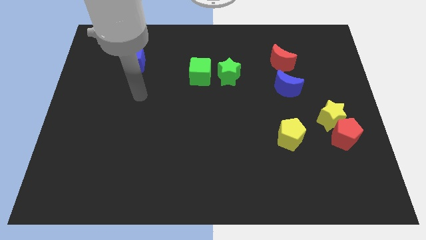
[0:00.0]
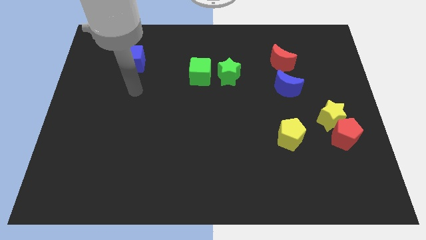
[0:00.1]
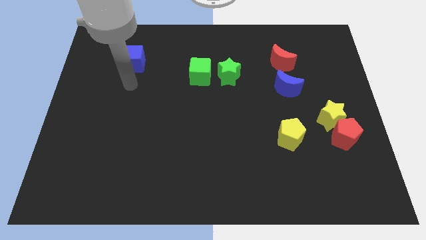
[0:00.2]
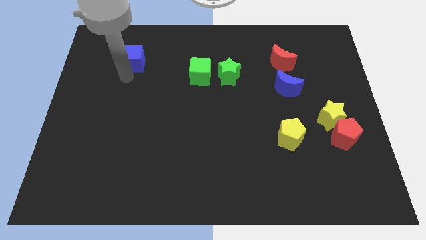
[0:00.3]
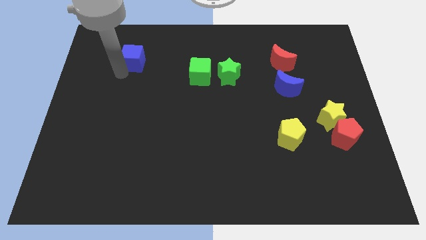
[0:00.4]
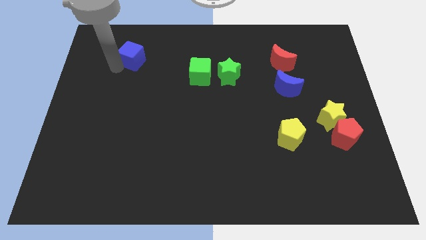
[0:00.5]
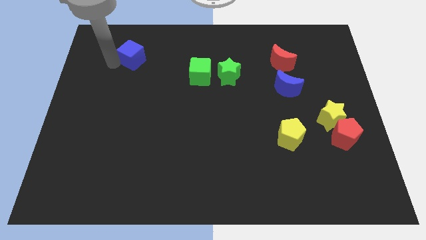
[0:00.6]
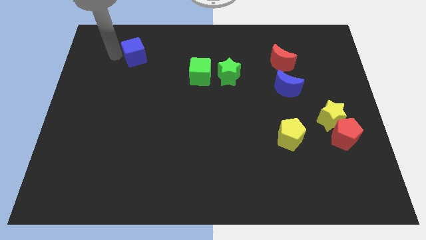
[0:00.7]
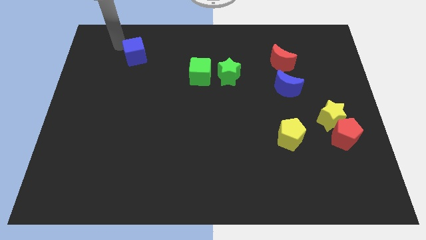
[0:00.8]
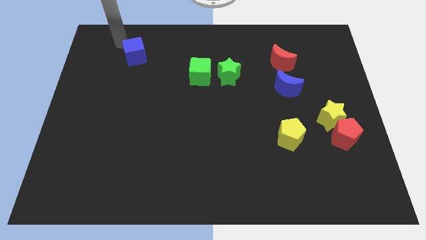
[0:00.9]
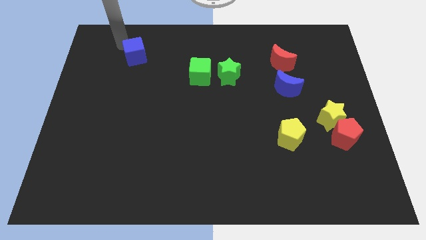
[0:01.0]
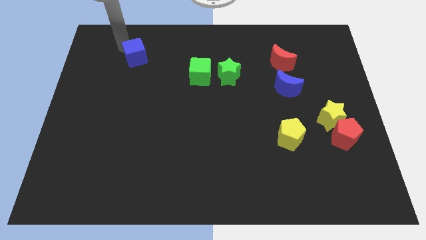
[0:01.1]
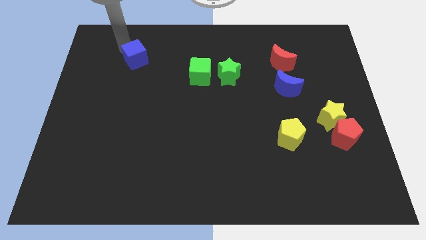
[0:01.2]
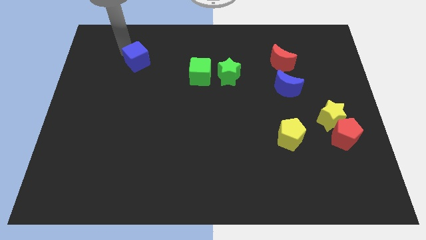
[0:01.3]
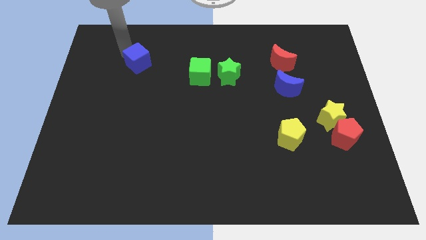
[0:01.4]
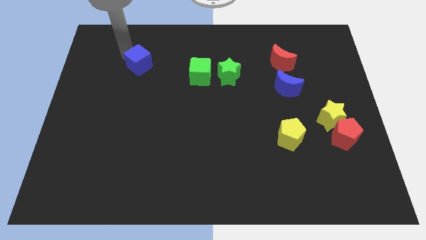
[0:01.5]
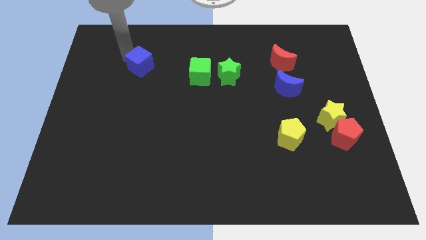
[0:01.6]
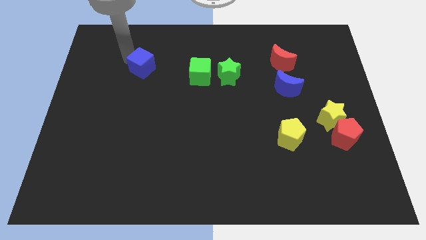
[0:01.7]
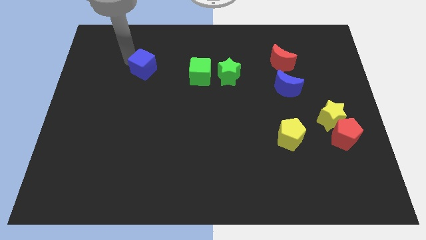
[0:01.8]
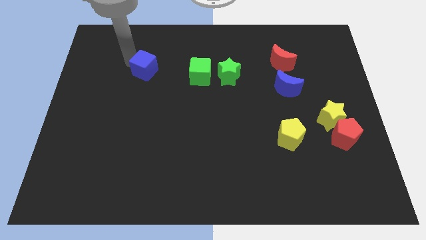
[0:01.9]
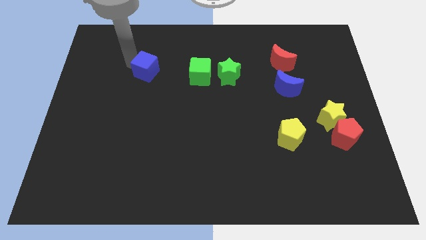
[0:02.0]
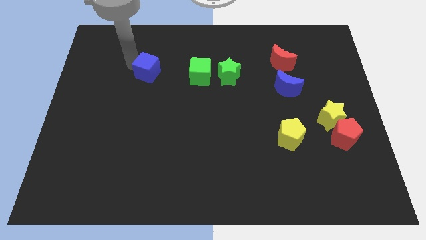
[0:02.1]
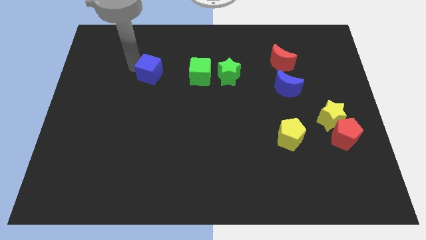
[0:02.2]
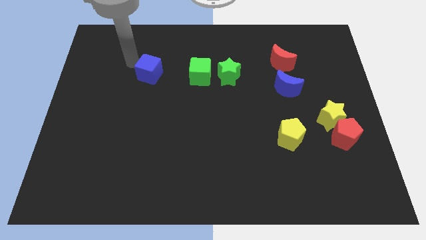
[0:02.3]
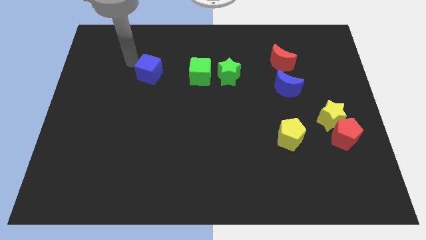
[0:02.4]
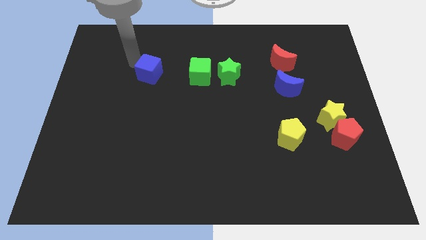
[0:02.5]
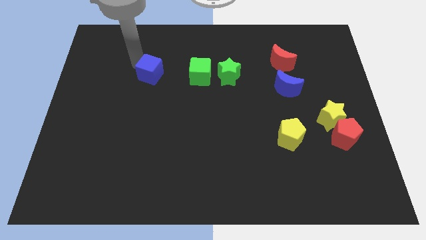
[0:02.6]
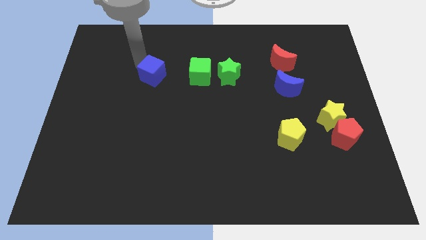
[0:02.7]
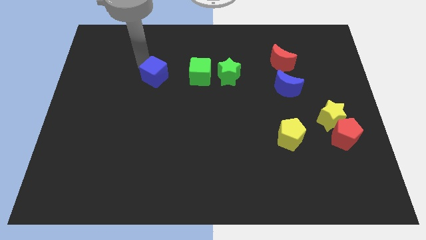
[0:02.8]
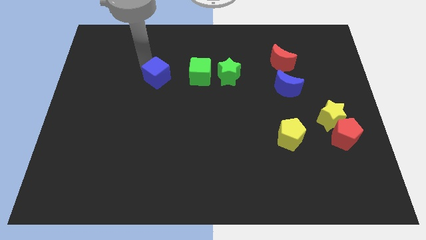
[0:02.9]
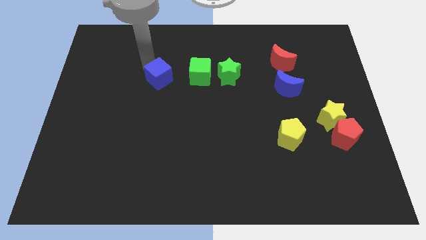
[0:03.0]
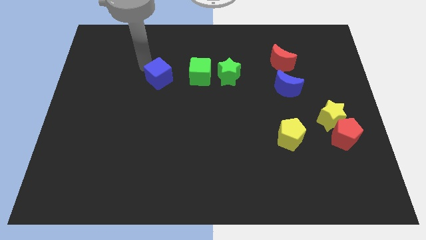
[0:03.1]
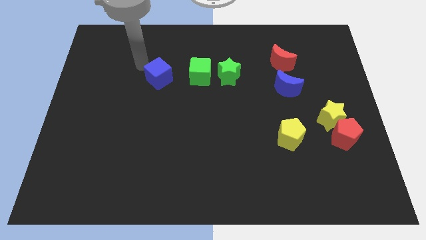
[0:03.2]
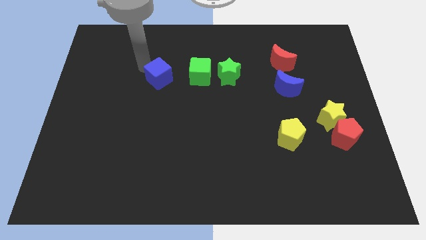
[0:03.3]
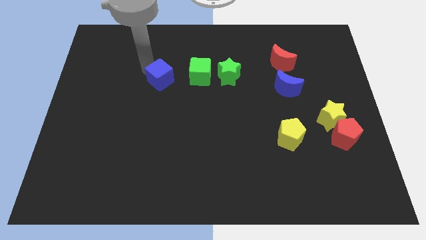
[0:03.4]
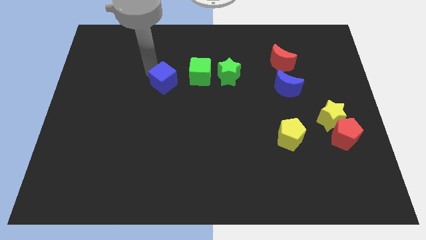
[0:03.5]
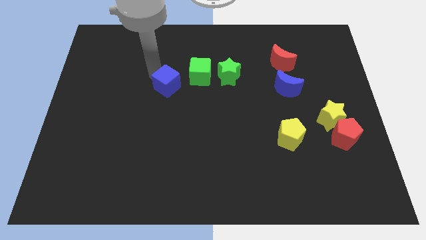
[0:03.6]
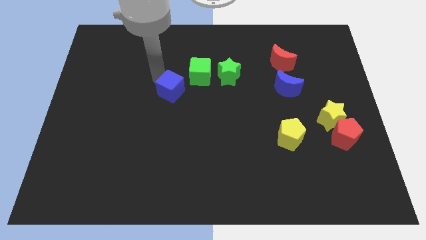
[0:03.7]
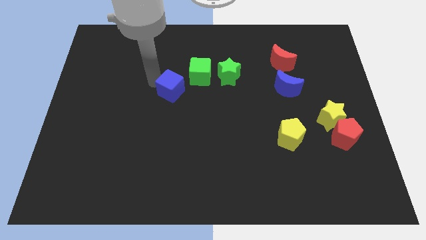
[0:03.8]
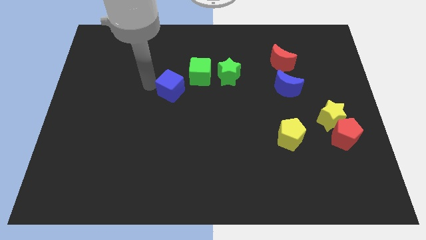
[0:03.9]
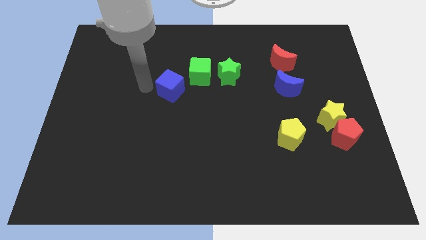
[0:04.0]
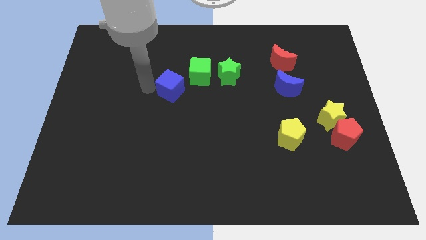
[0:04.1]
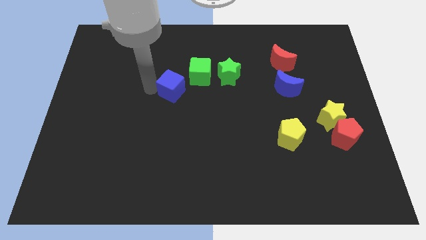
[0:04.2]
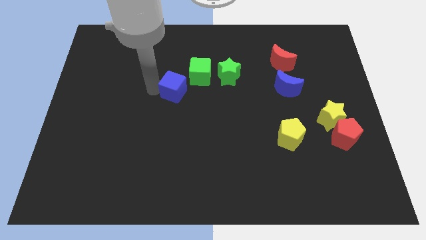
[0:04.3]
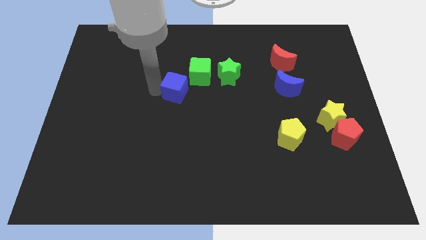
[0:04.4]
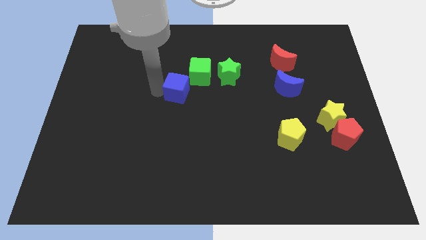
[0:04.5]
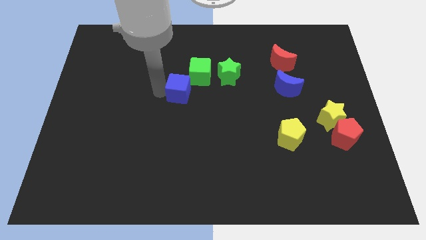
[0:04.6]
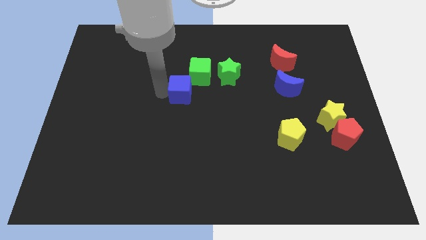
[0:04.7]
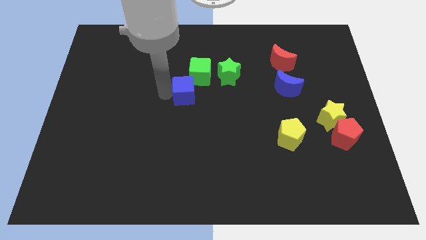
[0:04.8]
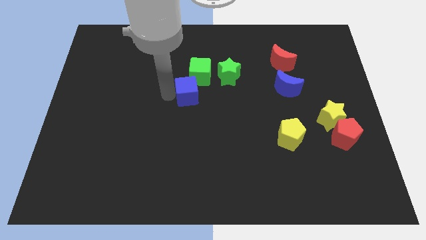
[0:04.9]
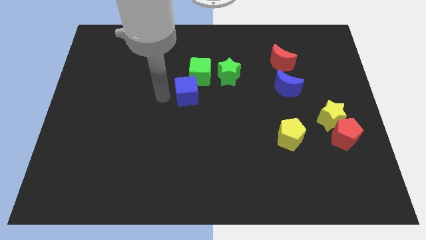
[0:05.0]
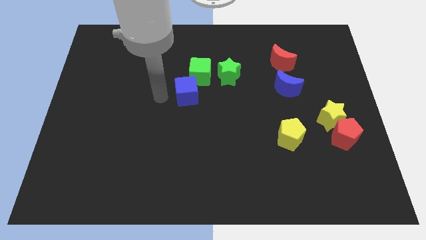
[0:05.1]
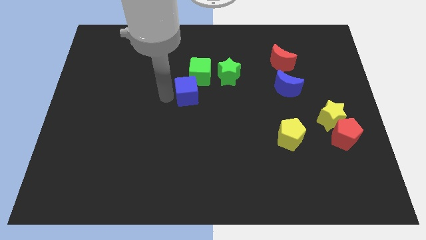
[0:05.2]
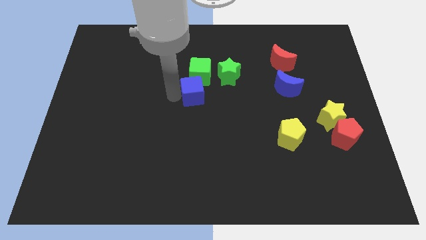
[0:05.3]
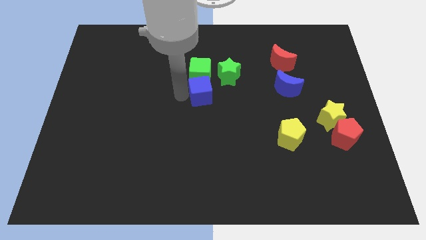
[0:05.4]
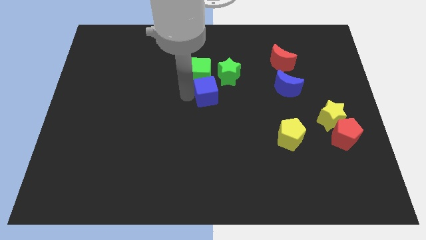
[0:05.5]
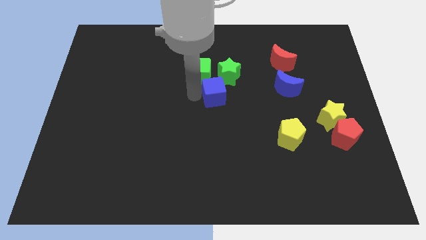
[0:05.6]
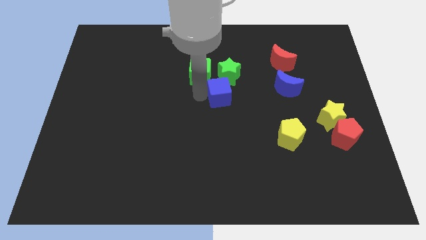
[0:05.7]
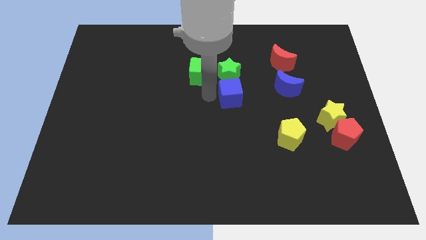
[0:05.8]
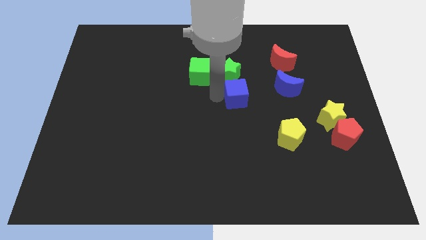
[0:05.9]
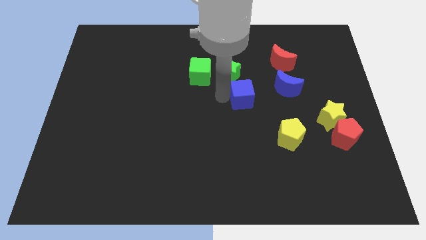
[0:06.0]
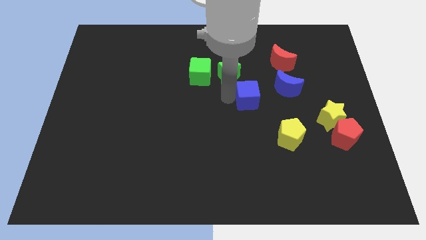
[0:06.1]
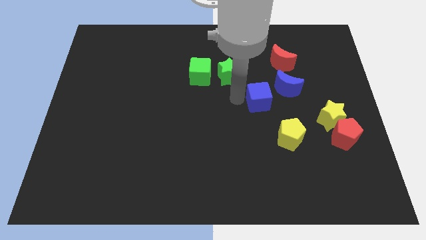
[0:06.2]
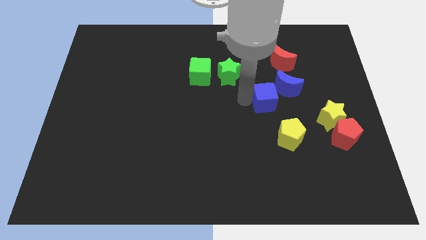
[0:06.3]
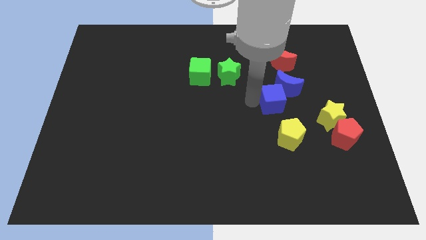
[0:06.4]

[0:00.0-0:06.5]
move the blue cube to the bottom of the red moon

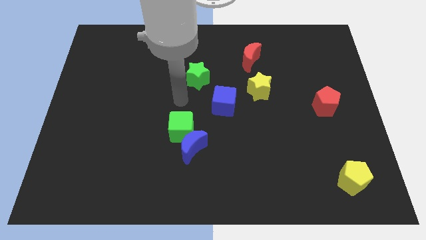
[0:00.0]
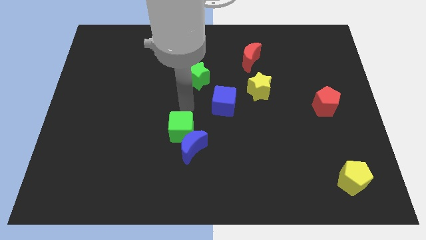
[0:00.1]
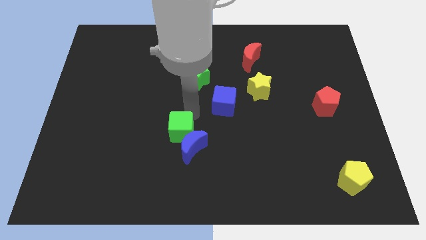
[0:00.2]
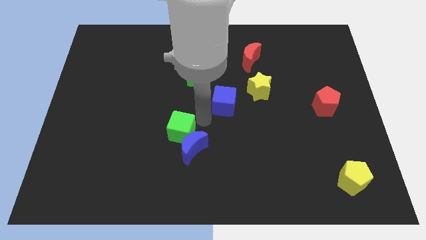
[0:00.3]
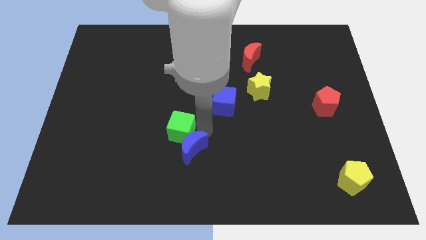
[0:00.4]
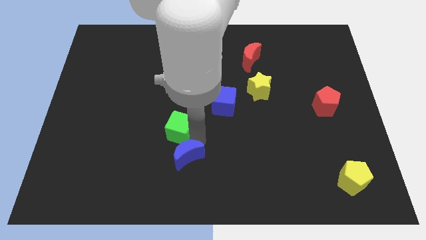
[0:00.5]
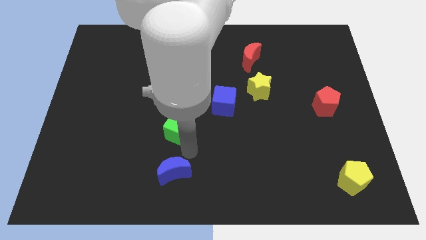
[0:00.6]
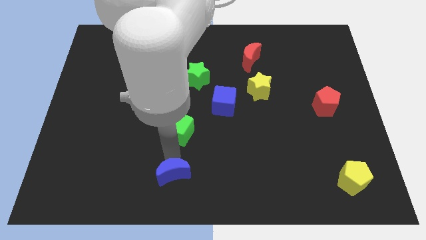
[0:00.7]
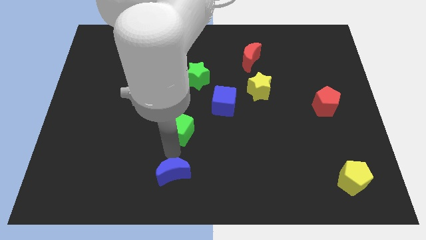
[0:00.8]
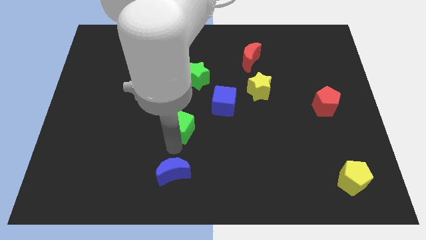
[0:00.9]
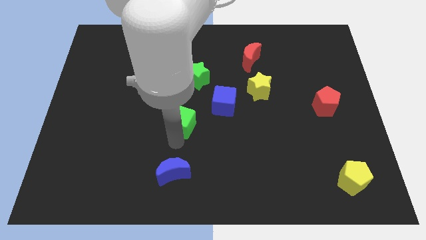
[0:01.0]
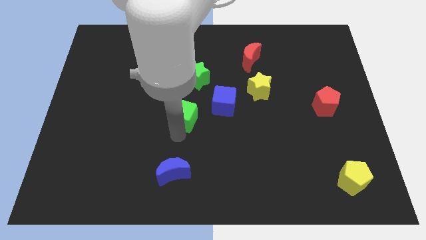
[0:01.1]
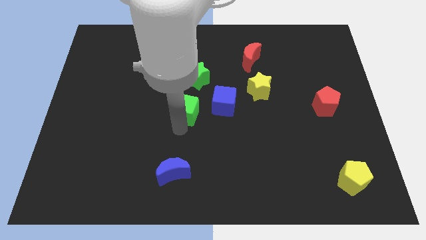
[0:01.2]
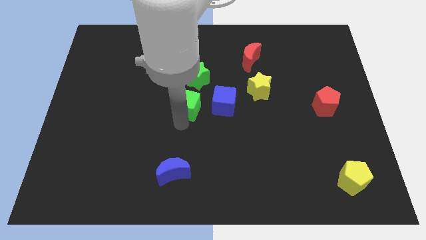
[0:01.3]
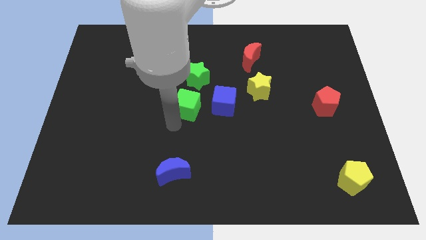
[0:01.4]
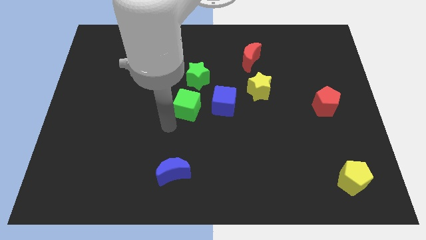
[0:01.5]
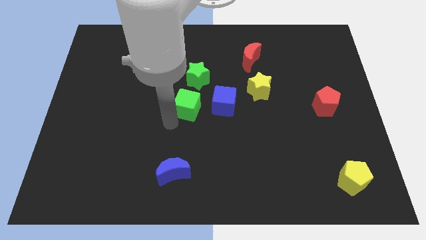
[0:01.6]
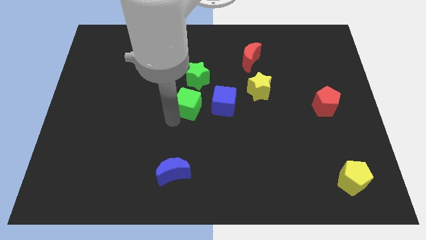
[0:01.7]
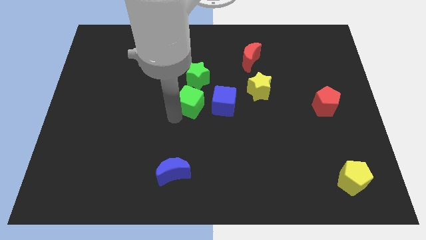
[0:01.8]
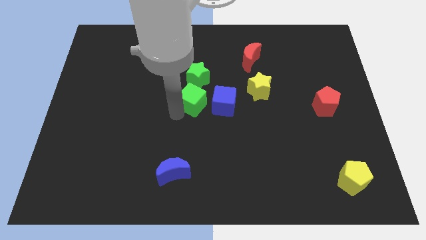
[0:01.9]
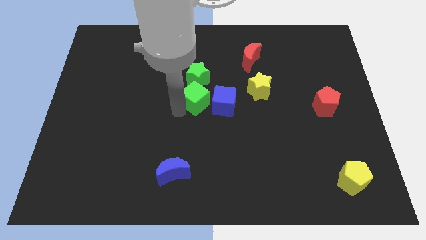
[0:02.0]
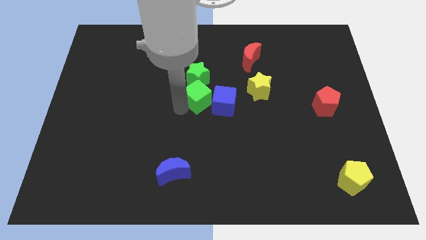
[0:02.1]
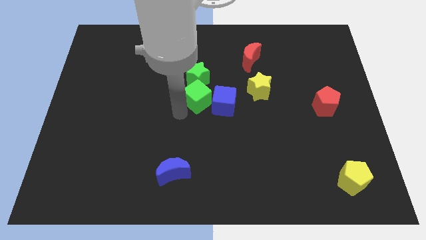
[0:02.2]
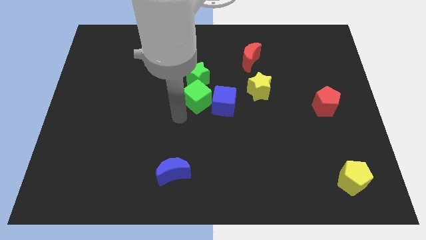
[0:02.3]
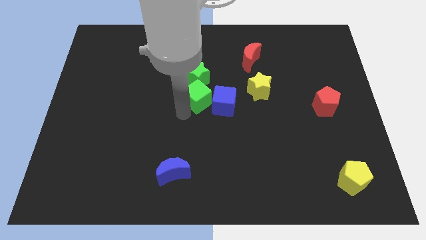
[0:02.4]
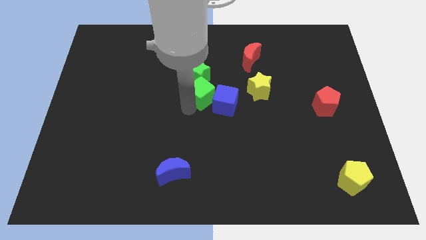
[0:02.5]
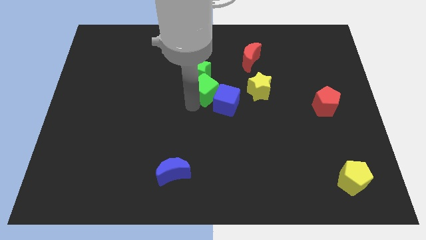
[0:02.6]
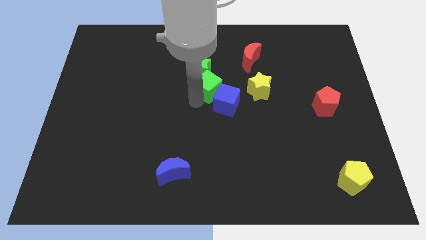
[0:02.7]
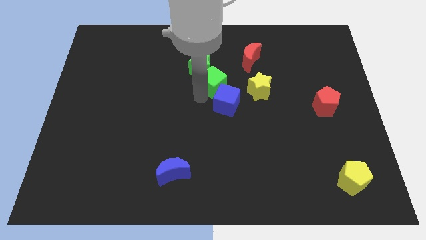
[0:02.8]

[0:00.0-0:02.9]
move the green cube to the bottom left of the red moon
